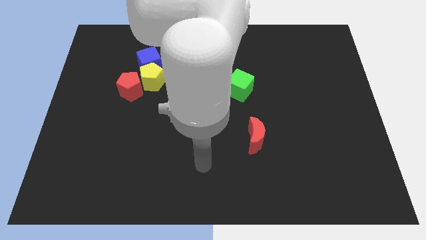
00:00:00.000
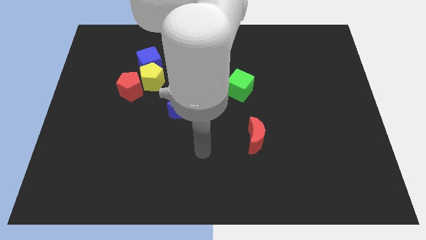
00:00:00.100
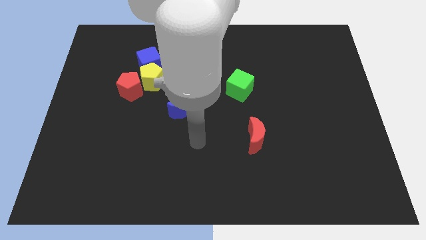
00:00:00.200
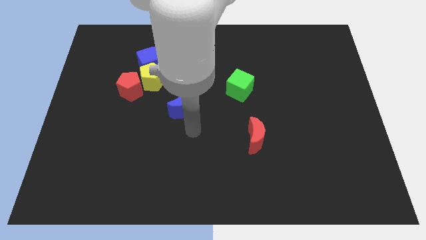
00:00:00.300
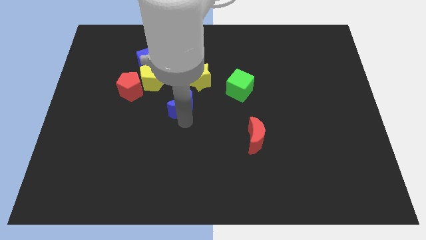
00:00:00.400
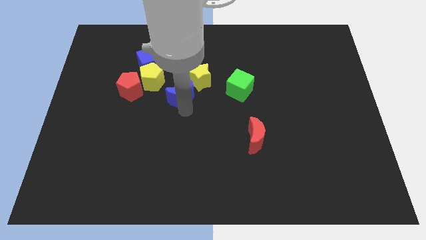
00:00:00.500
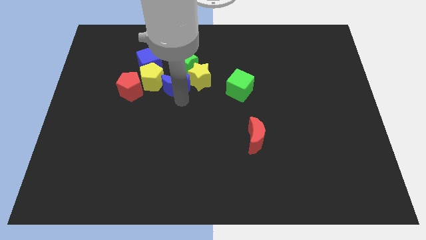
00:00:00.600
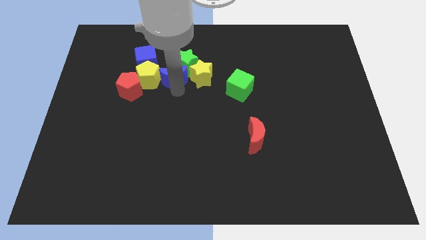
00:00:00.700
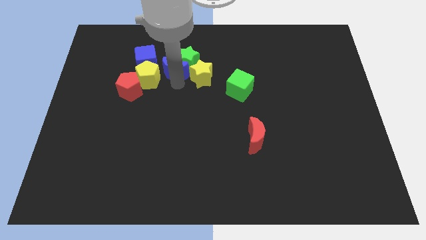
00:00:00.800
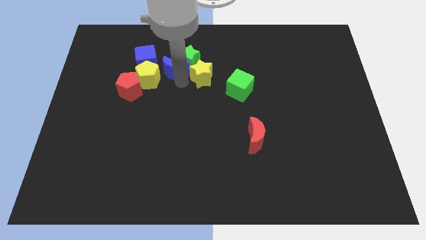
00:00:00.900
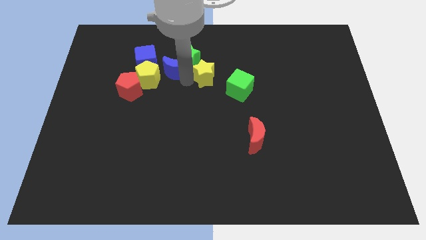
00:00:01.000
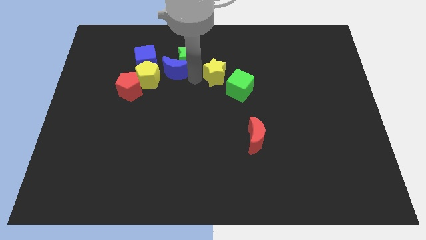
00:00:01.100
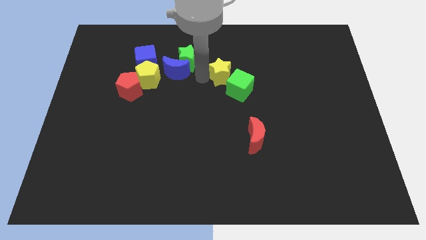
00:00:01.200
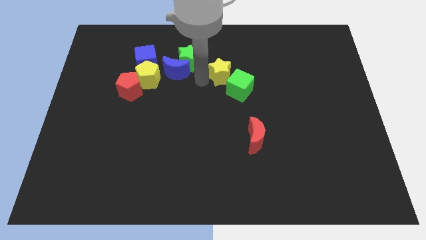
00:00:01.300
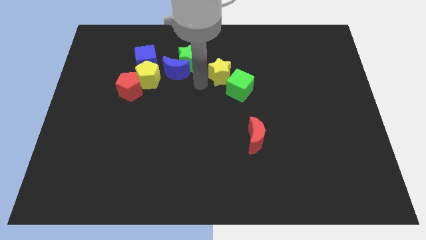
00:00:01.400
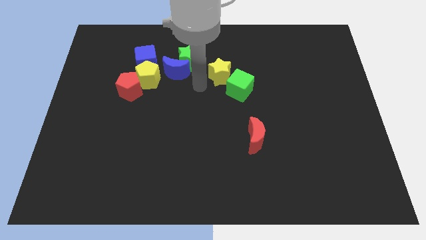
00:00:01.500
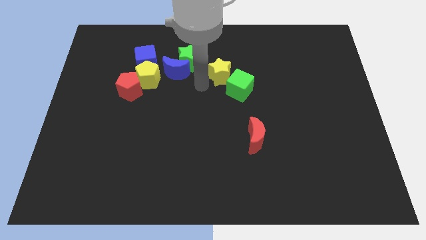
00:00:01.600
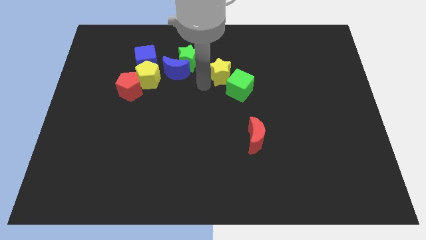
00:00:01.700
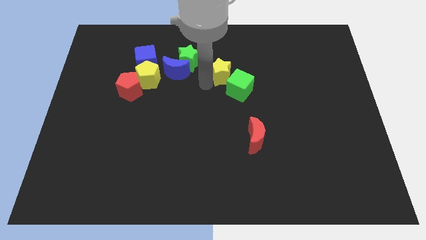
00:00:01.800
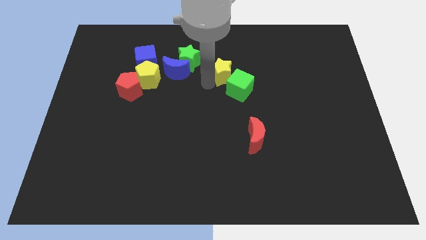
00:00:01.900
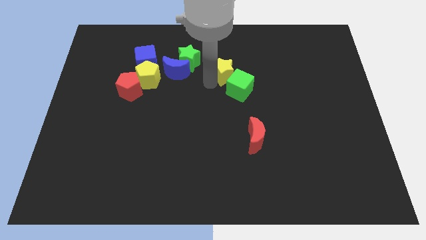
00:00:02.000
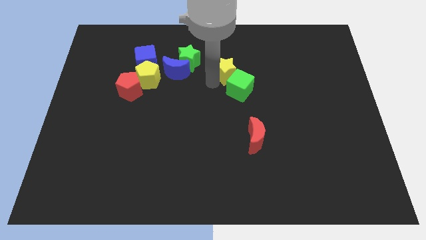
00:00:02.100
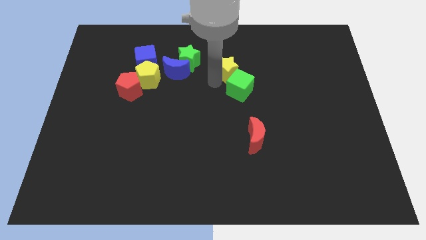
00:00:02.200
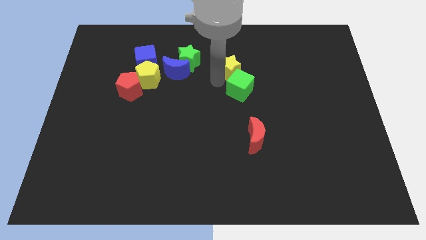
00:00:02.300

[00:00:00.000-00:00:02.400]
slide the yellow star somewhat to the right

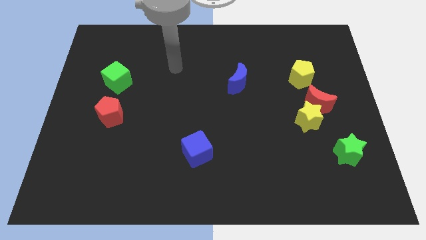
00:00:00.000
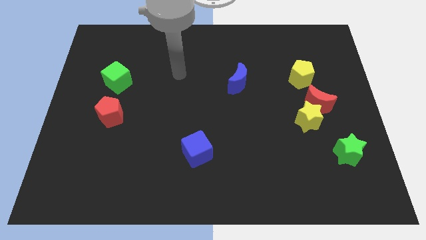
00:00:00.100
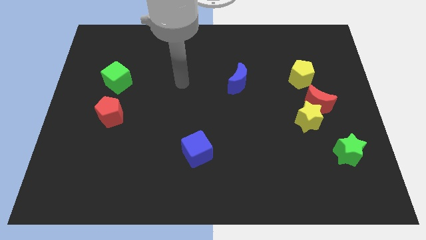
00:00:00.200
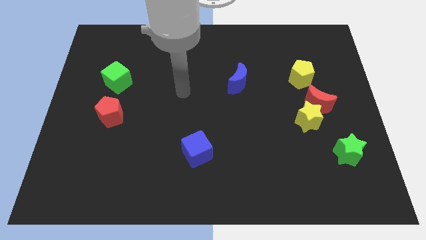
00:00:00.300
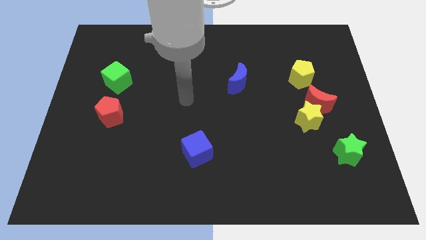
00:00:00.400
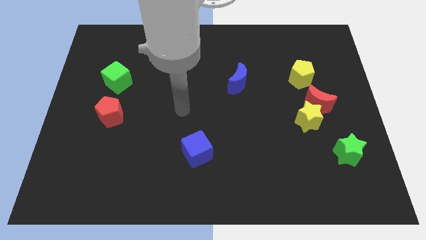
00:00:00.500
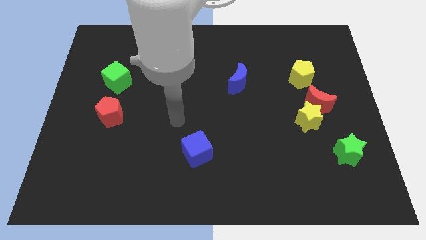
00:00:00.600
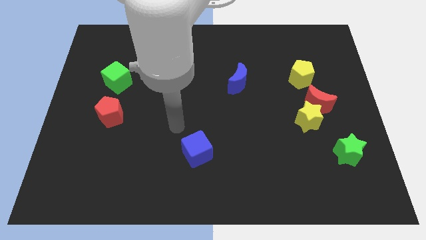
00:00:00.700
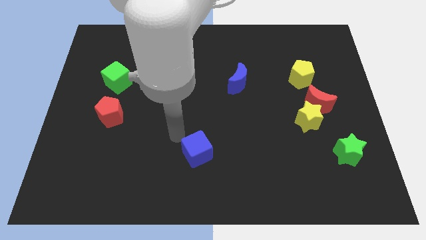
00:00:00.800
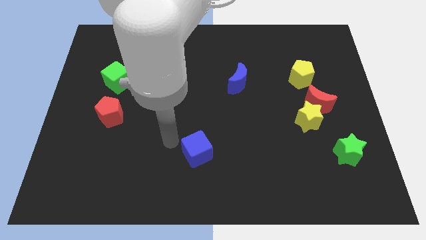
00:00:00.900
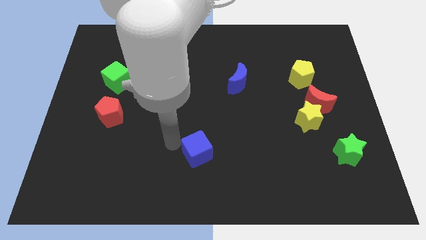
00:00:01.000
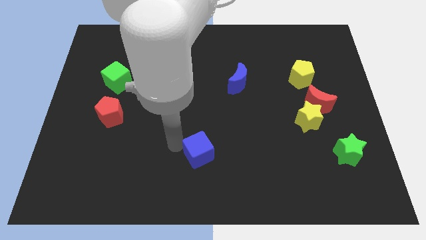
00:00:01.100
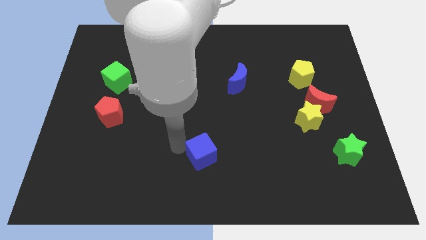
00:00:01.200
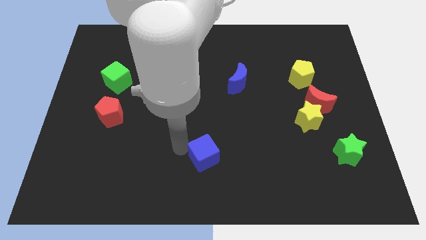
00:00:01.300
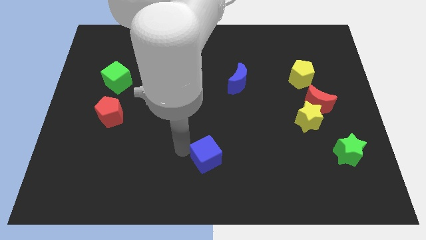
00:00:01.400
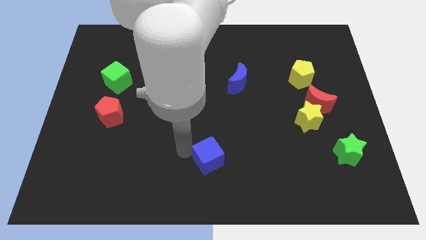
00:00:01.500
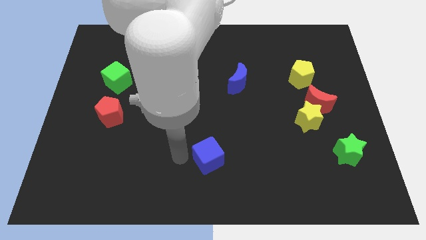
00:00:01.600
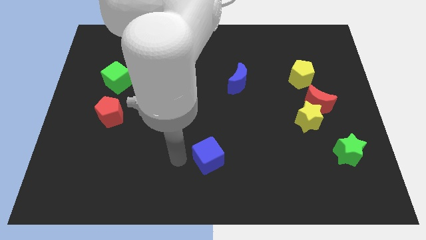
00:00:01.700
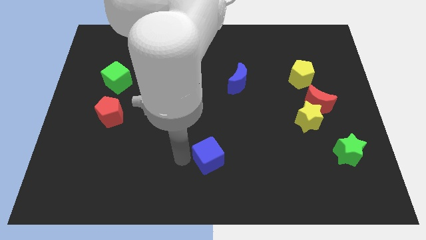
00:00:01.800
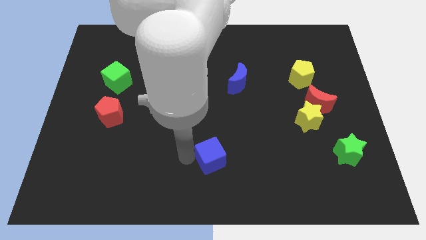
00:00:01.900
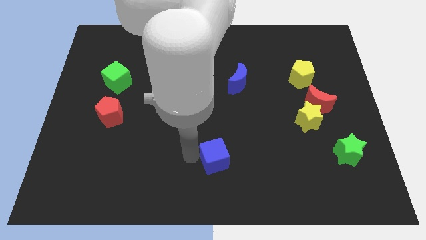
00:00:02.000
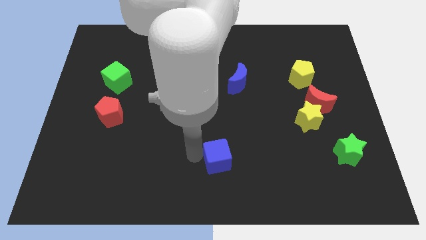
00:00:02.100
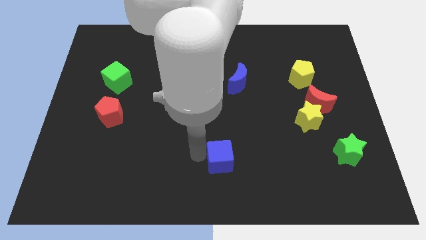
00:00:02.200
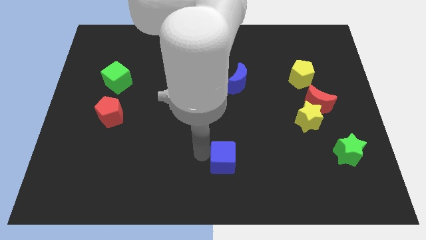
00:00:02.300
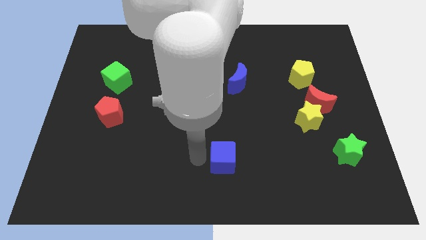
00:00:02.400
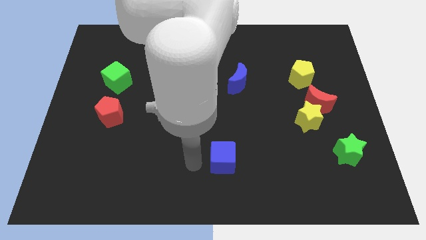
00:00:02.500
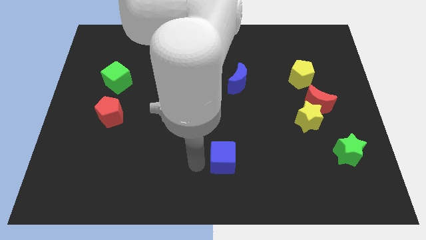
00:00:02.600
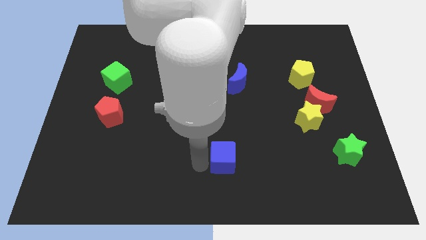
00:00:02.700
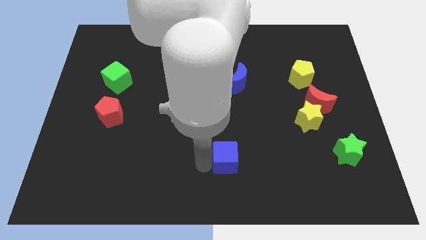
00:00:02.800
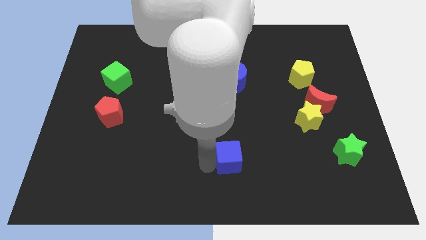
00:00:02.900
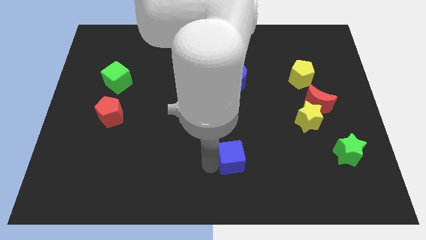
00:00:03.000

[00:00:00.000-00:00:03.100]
move the blue cube a little bit to the right

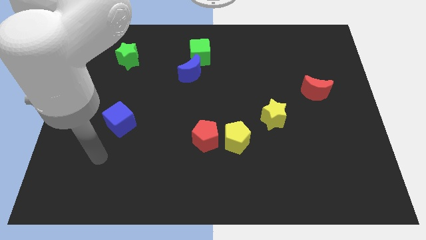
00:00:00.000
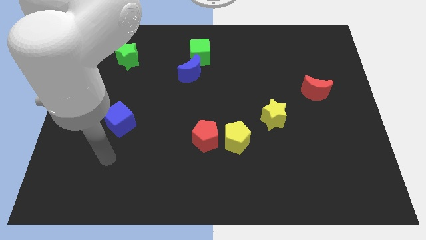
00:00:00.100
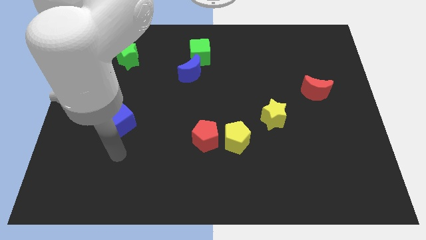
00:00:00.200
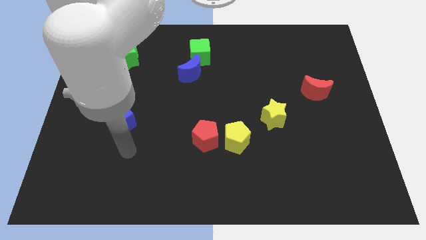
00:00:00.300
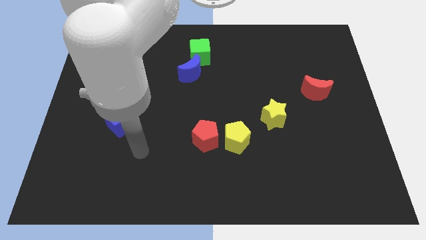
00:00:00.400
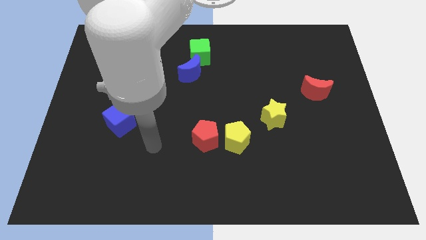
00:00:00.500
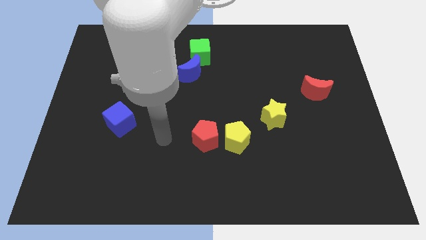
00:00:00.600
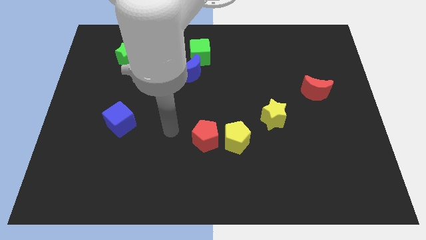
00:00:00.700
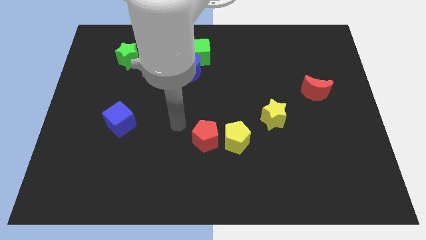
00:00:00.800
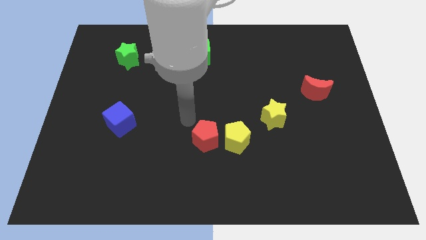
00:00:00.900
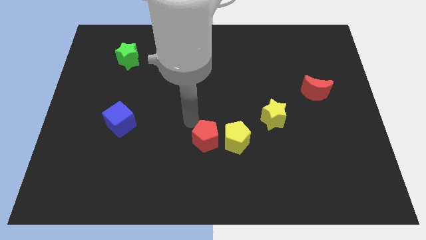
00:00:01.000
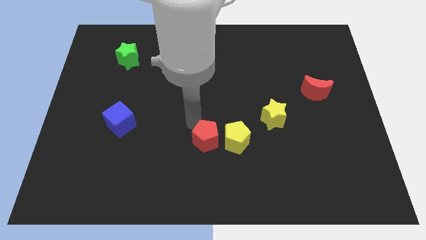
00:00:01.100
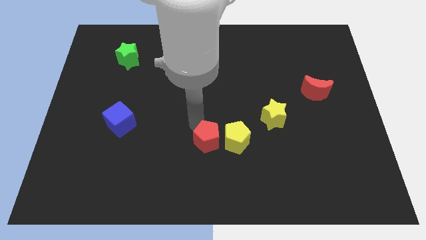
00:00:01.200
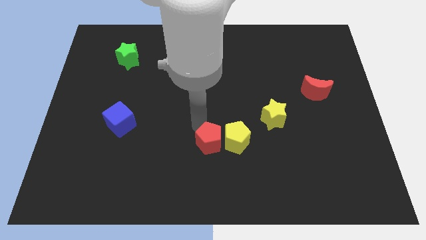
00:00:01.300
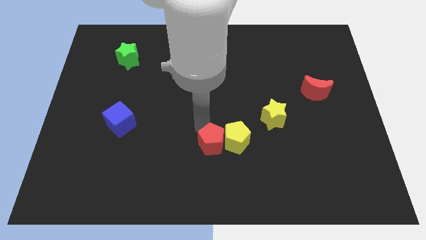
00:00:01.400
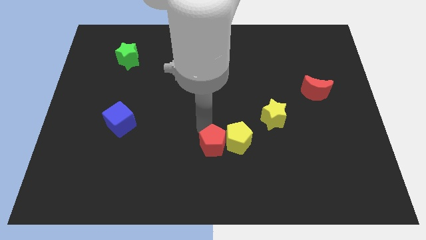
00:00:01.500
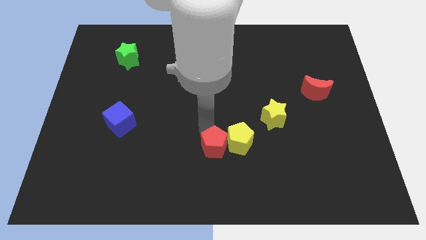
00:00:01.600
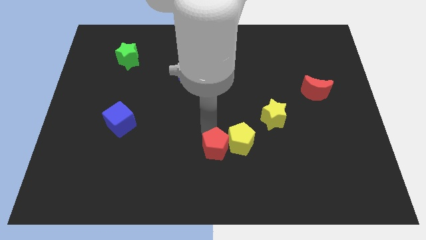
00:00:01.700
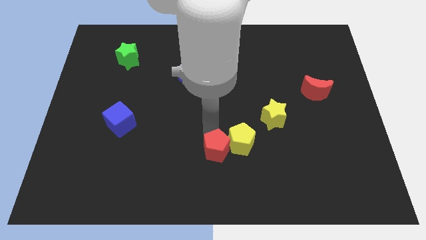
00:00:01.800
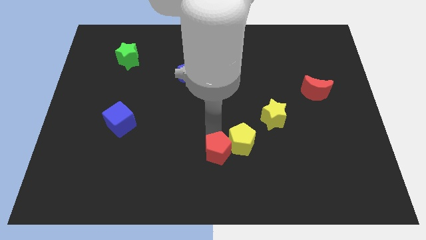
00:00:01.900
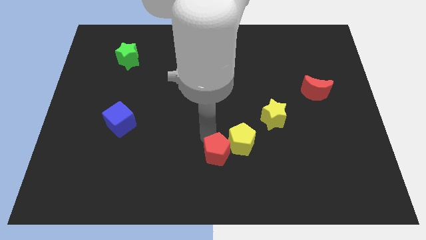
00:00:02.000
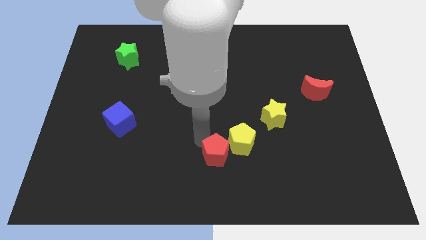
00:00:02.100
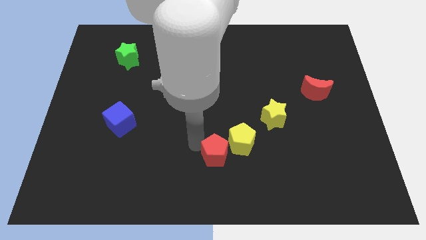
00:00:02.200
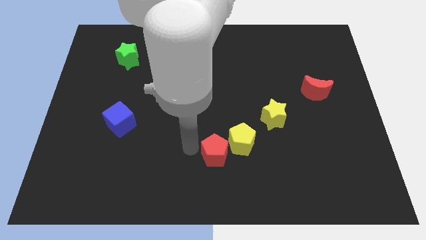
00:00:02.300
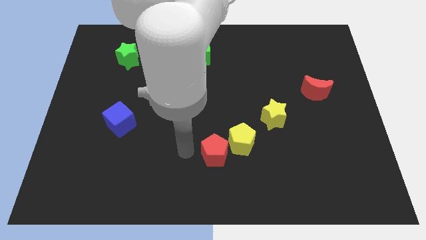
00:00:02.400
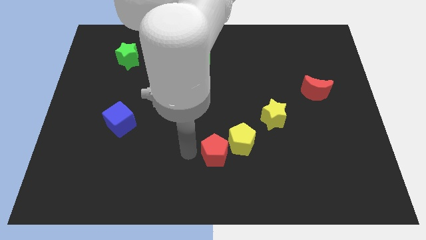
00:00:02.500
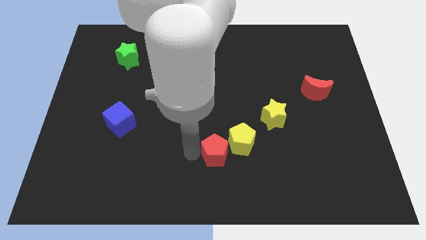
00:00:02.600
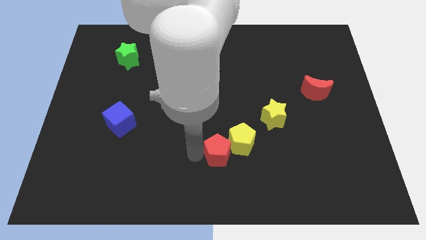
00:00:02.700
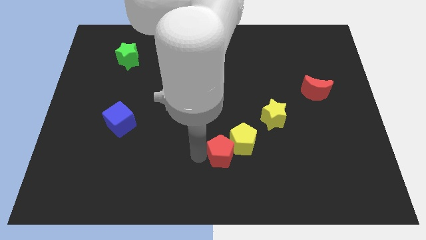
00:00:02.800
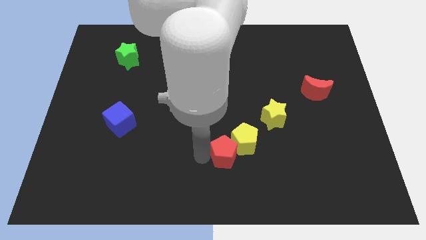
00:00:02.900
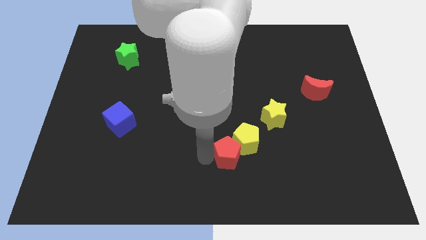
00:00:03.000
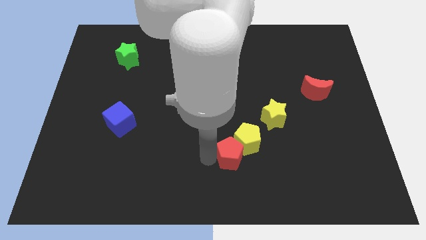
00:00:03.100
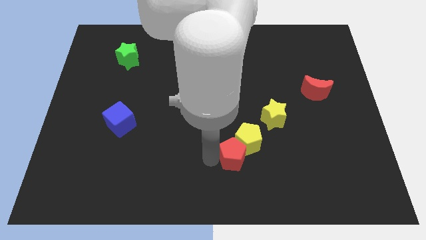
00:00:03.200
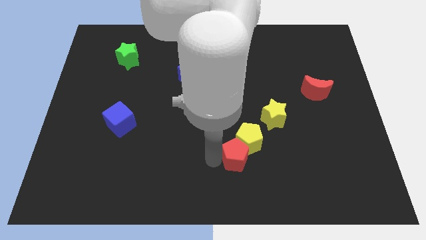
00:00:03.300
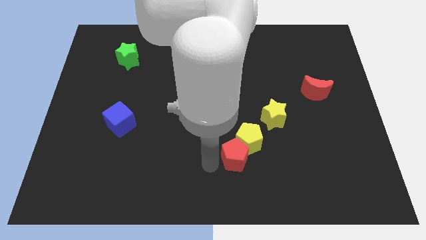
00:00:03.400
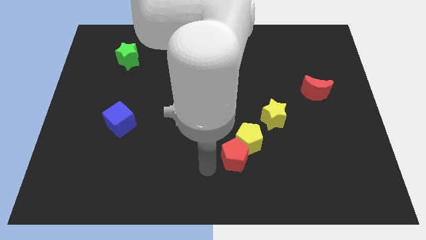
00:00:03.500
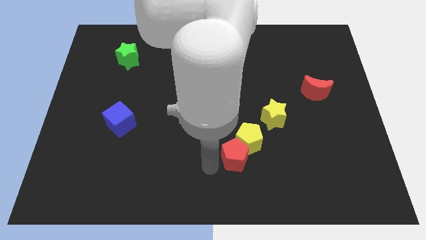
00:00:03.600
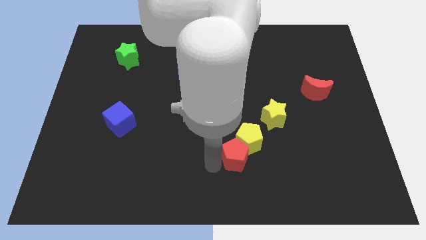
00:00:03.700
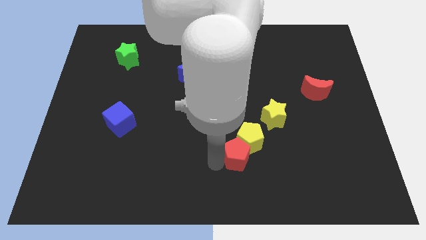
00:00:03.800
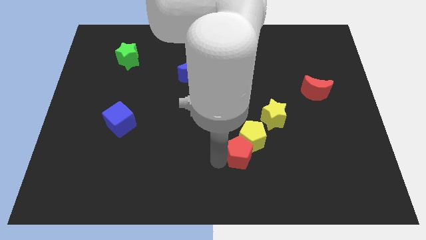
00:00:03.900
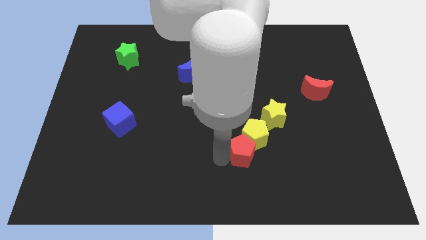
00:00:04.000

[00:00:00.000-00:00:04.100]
slide the red pentagon somewhat to the right
